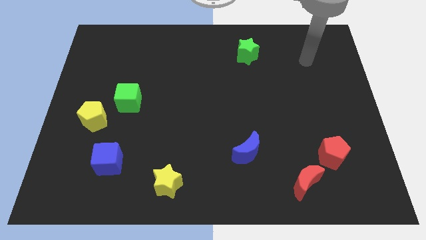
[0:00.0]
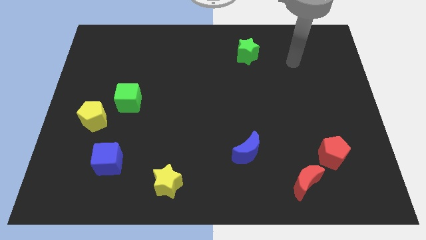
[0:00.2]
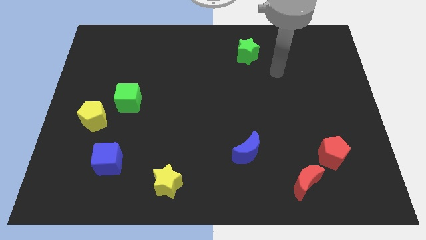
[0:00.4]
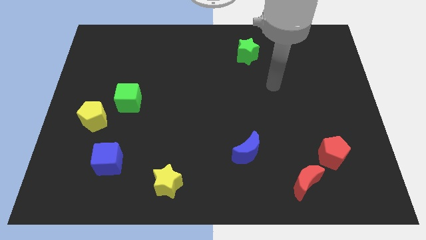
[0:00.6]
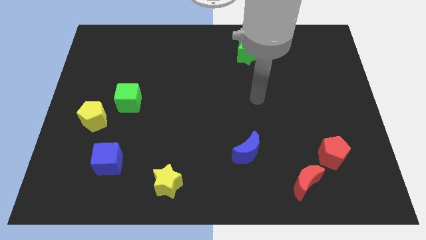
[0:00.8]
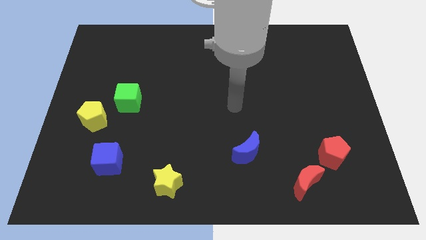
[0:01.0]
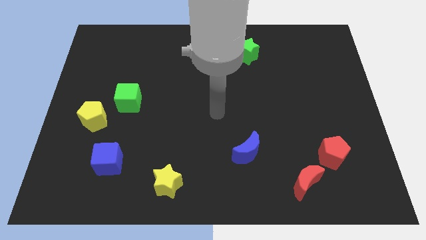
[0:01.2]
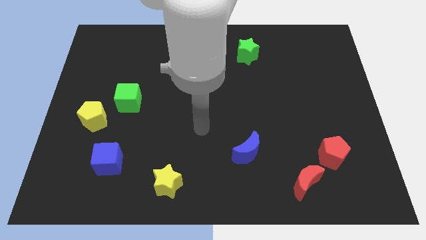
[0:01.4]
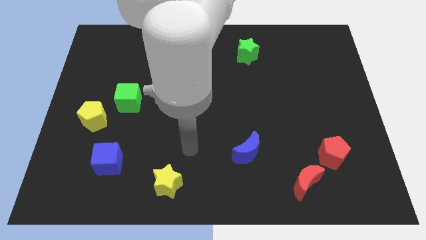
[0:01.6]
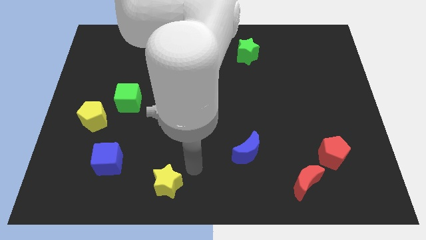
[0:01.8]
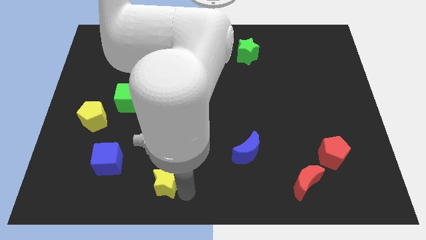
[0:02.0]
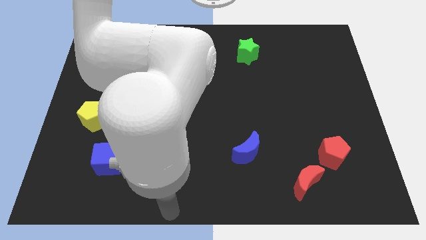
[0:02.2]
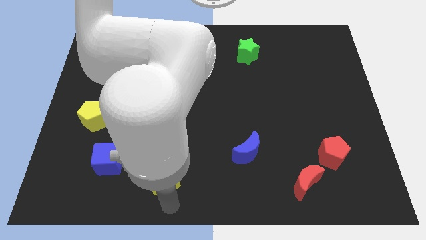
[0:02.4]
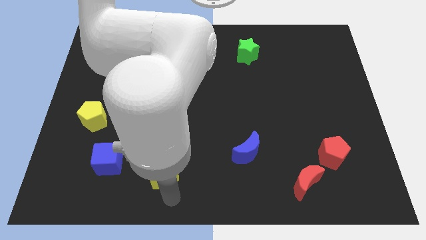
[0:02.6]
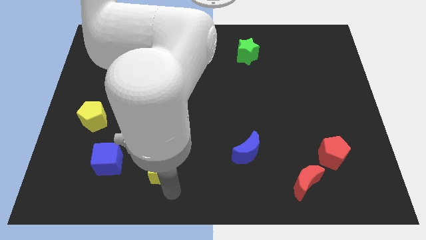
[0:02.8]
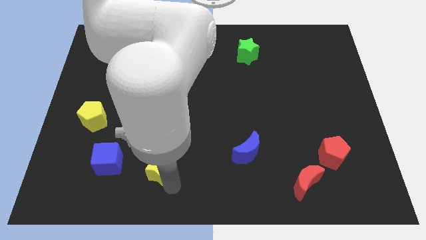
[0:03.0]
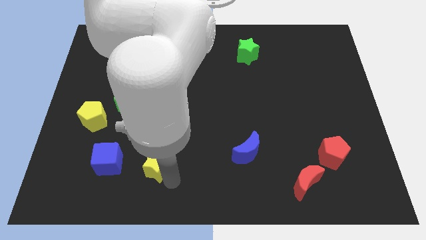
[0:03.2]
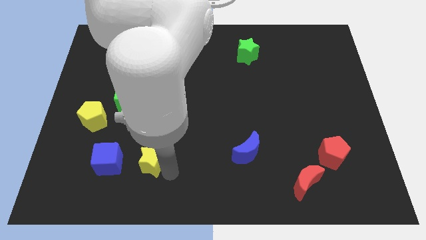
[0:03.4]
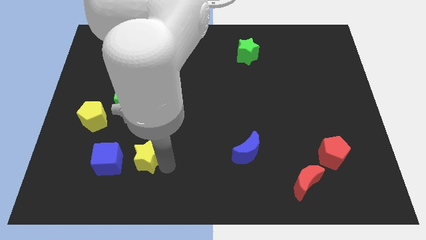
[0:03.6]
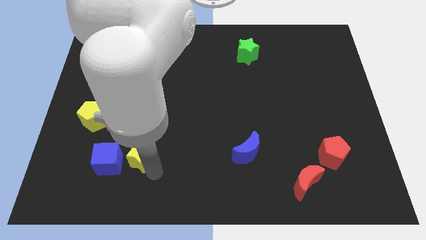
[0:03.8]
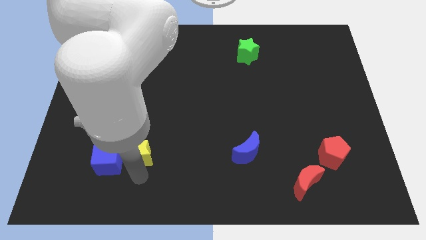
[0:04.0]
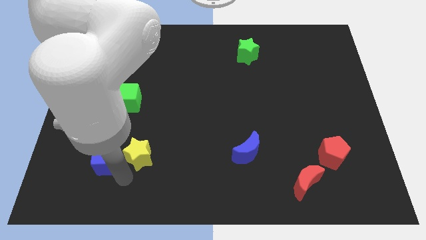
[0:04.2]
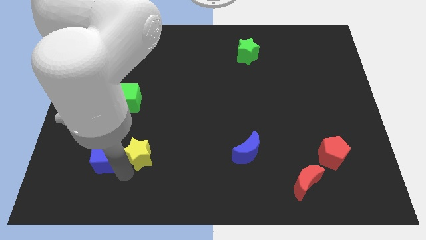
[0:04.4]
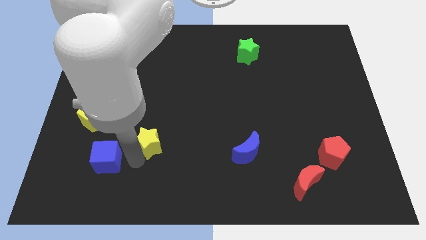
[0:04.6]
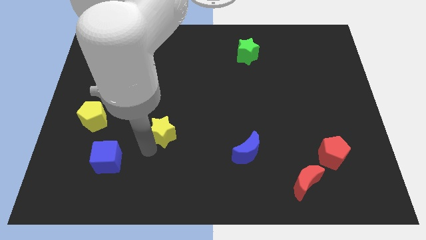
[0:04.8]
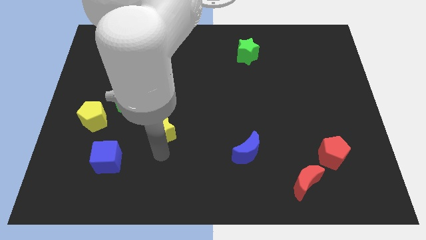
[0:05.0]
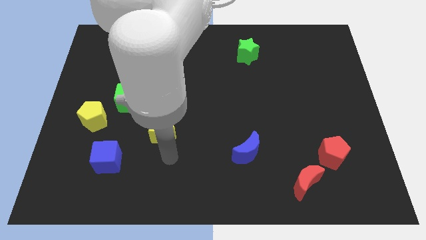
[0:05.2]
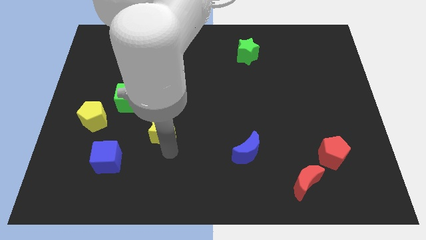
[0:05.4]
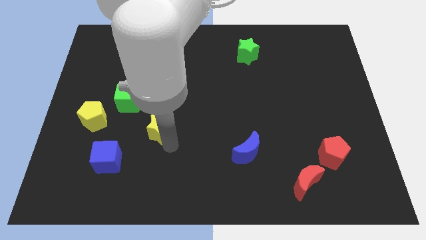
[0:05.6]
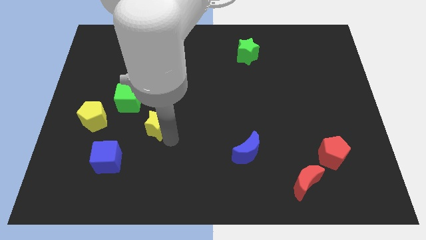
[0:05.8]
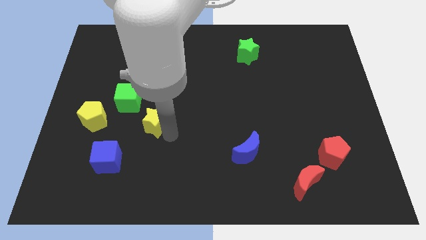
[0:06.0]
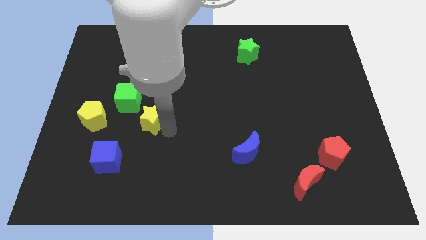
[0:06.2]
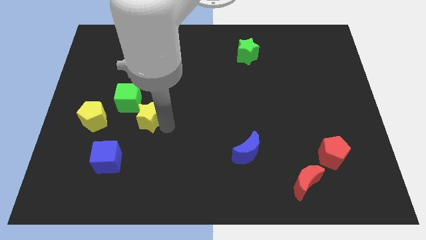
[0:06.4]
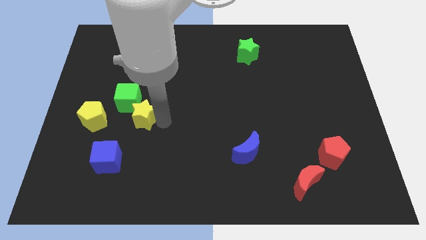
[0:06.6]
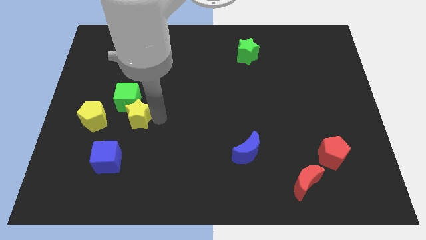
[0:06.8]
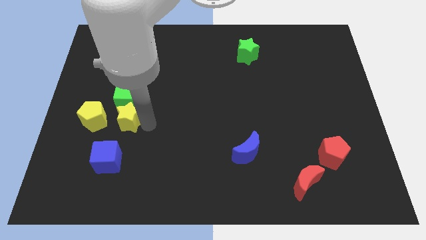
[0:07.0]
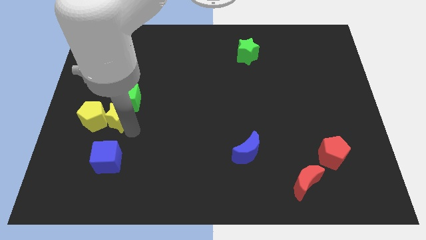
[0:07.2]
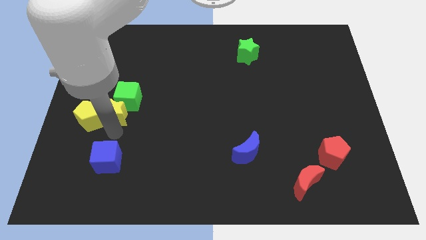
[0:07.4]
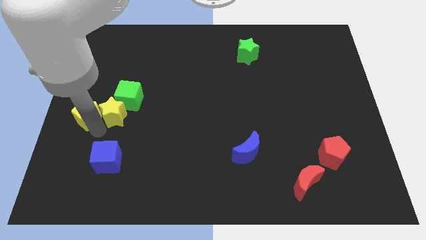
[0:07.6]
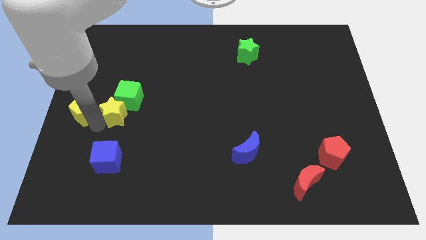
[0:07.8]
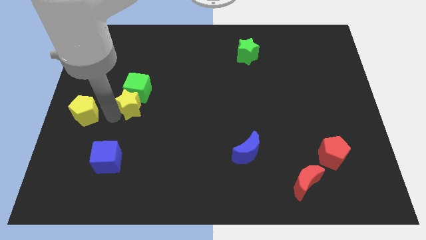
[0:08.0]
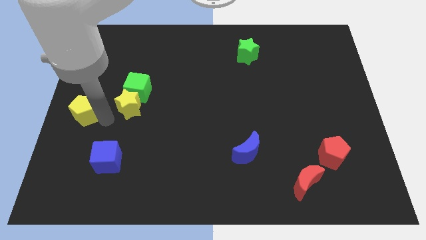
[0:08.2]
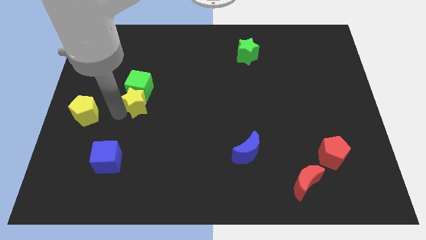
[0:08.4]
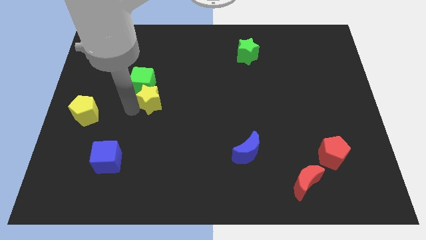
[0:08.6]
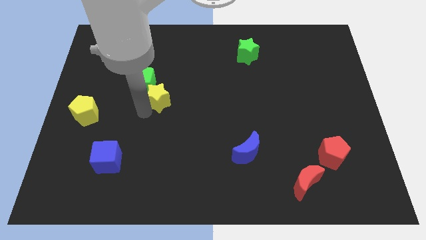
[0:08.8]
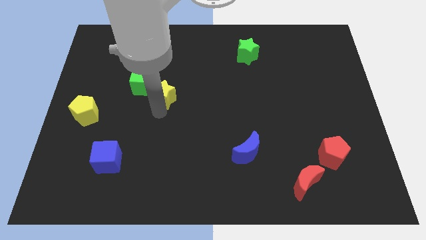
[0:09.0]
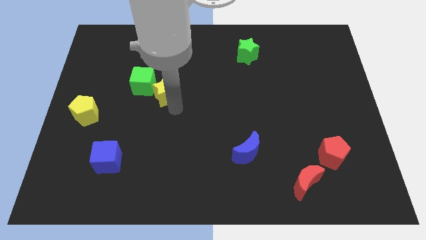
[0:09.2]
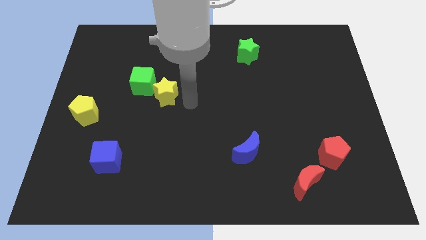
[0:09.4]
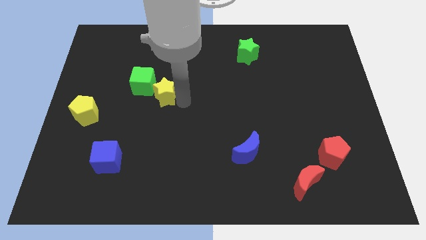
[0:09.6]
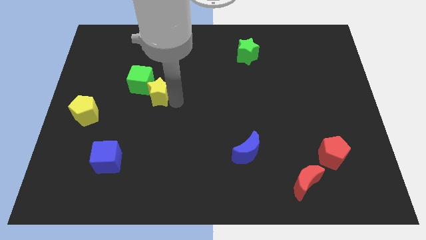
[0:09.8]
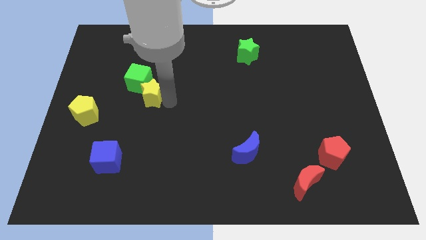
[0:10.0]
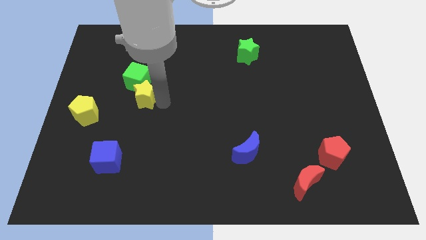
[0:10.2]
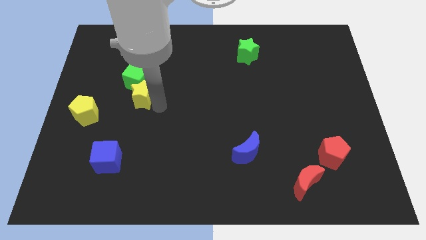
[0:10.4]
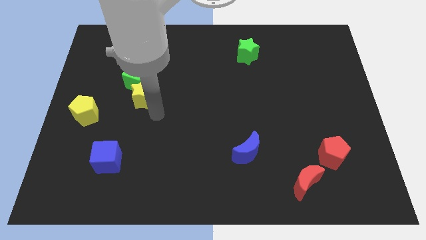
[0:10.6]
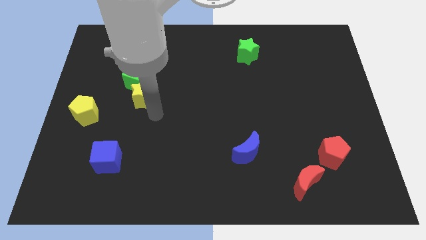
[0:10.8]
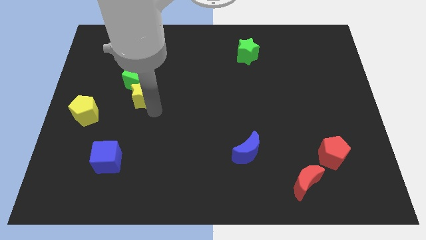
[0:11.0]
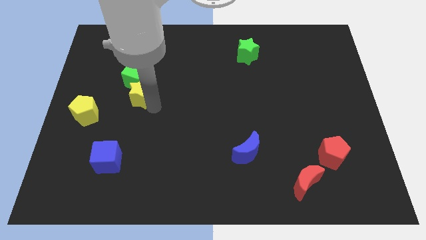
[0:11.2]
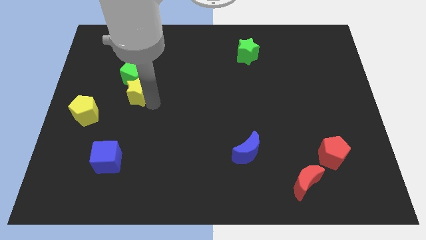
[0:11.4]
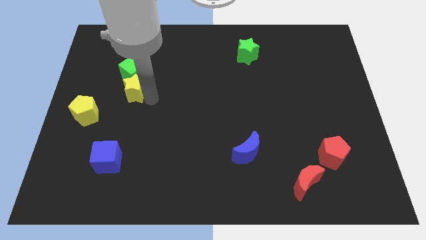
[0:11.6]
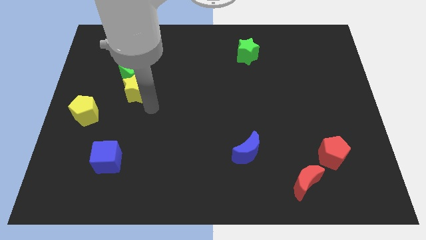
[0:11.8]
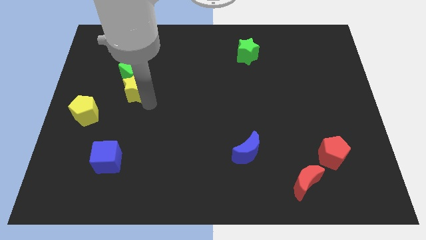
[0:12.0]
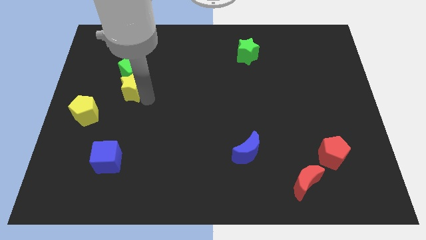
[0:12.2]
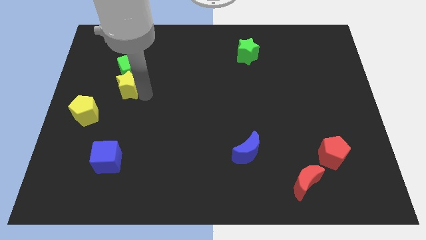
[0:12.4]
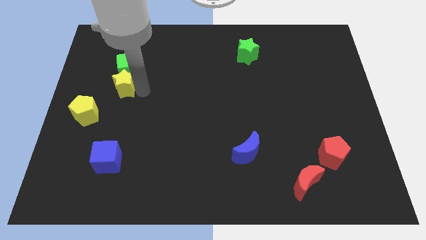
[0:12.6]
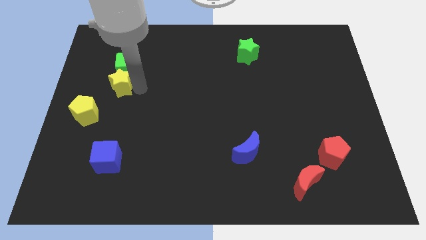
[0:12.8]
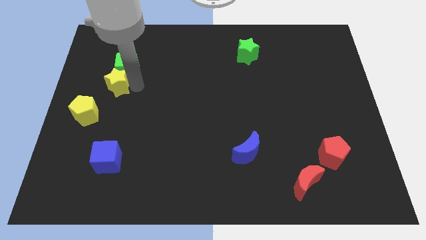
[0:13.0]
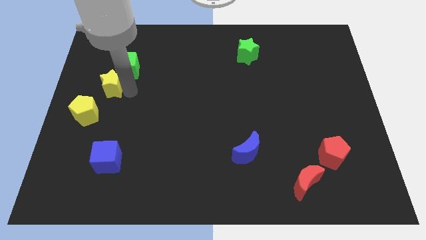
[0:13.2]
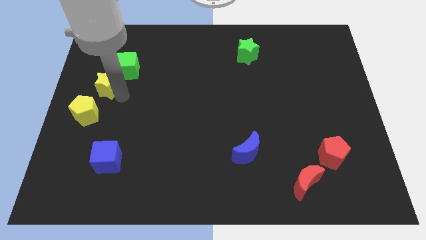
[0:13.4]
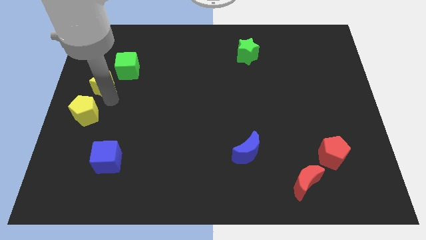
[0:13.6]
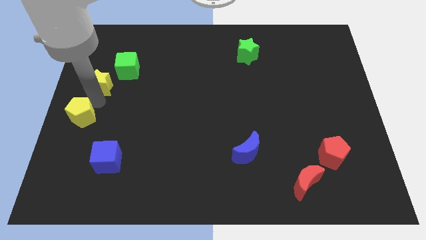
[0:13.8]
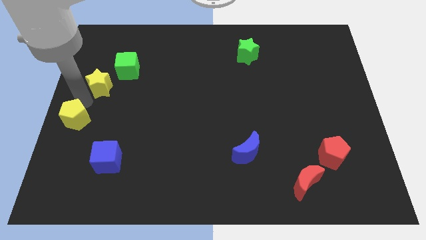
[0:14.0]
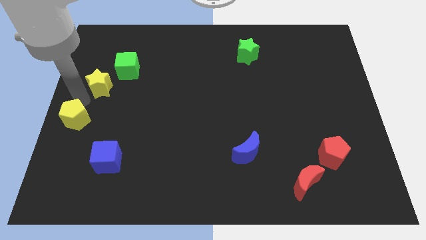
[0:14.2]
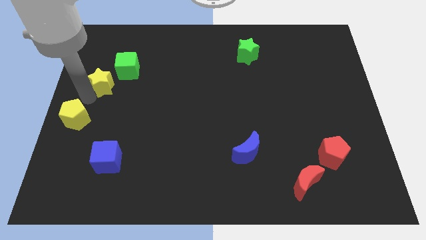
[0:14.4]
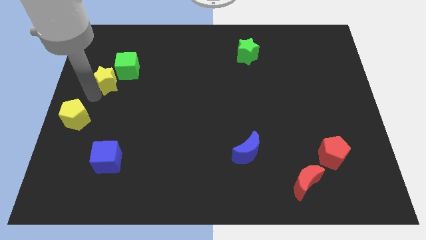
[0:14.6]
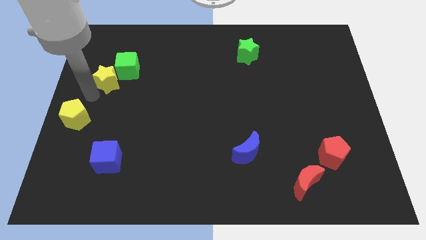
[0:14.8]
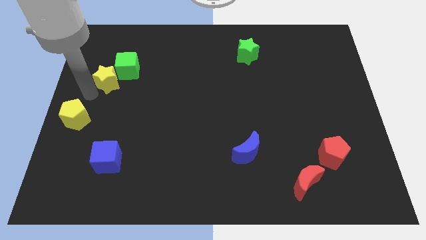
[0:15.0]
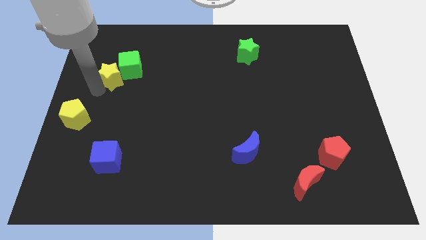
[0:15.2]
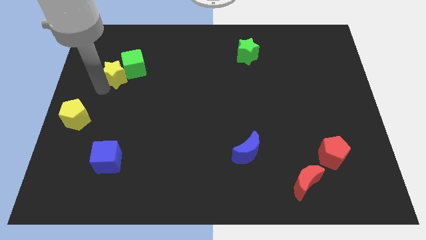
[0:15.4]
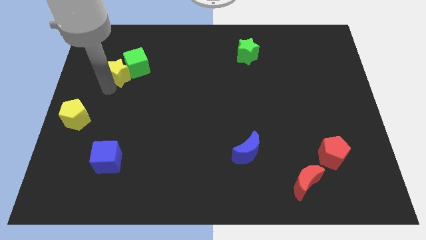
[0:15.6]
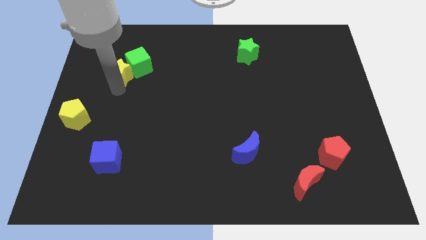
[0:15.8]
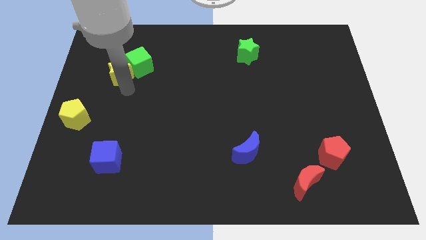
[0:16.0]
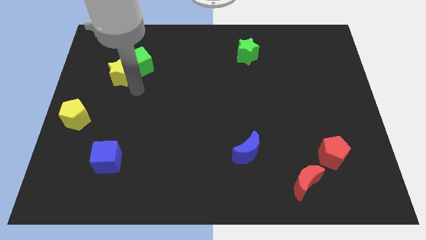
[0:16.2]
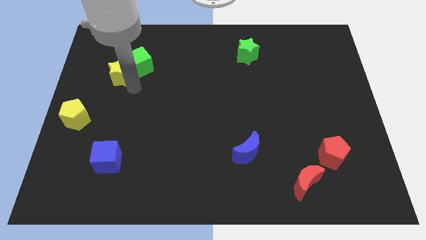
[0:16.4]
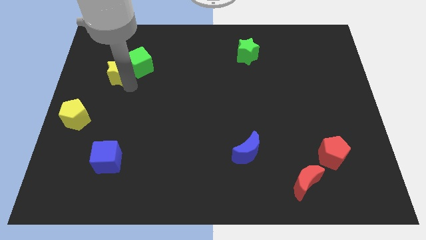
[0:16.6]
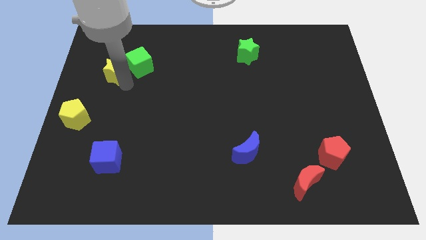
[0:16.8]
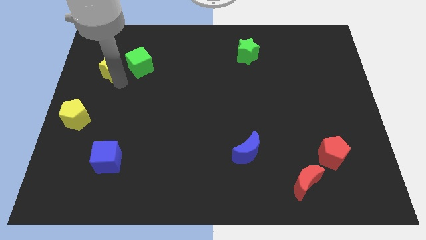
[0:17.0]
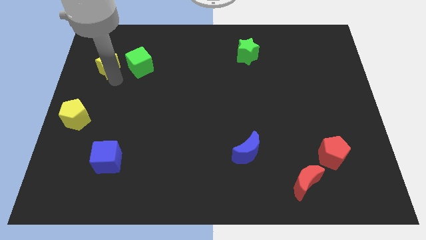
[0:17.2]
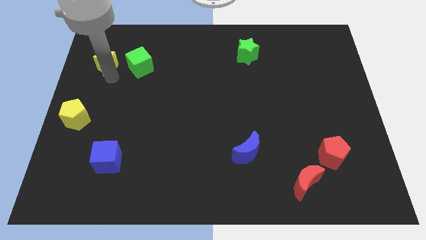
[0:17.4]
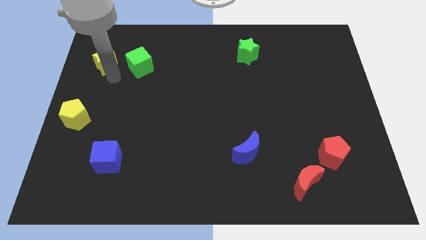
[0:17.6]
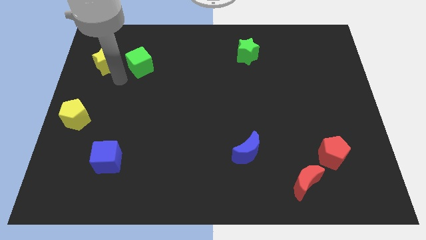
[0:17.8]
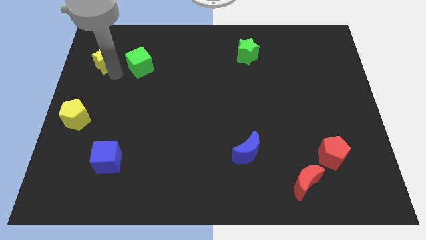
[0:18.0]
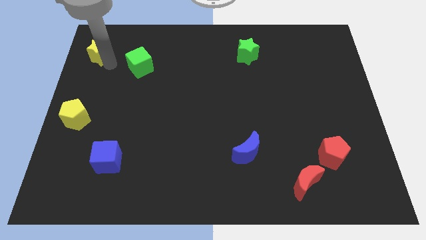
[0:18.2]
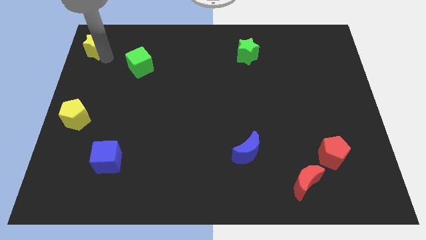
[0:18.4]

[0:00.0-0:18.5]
put the yellow star to the top left corner
